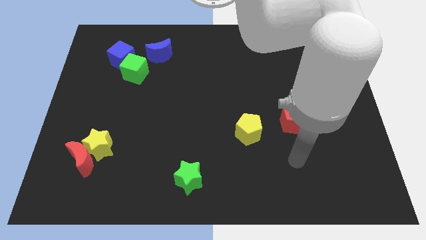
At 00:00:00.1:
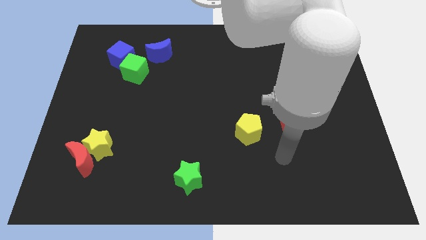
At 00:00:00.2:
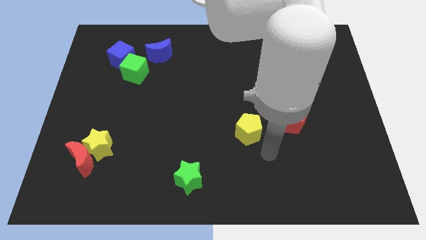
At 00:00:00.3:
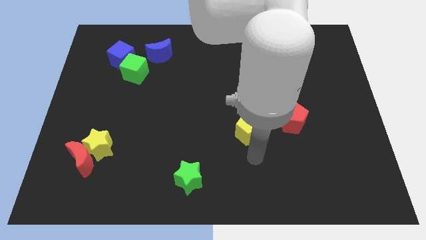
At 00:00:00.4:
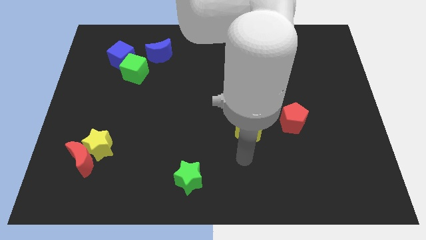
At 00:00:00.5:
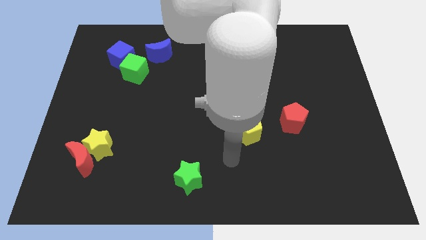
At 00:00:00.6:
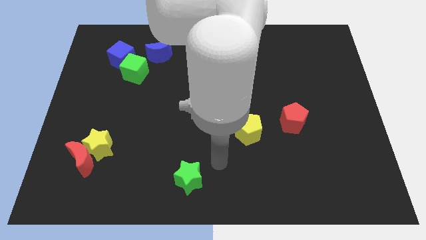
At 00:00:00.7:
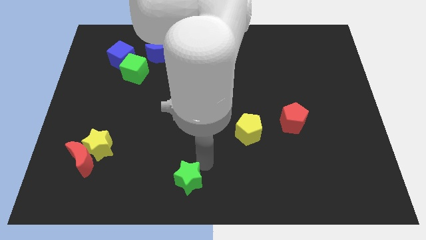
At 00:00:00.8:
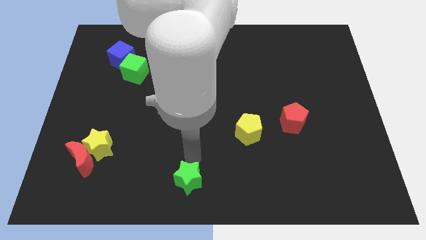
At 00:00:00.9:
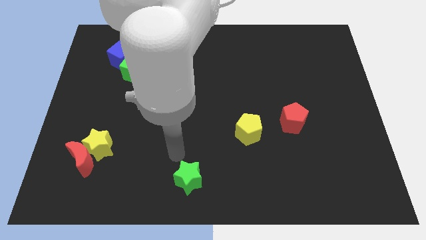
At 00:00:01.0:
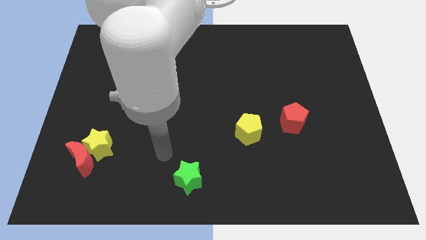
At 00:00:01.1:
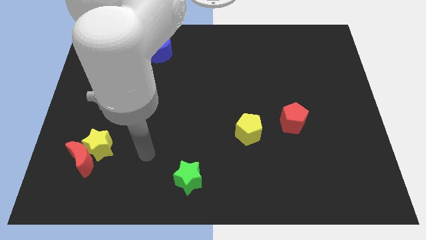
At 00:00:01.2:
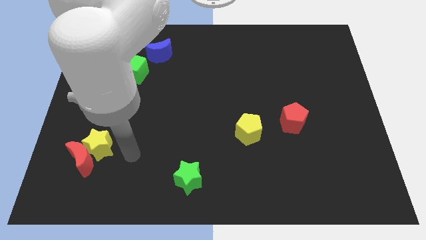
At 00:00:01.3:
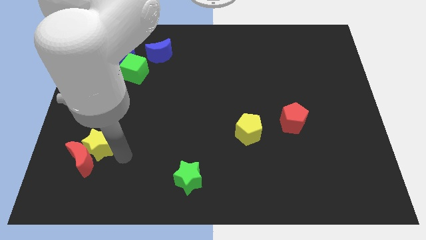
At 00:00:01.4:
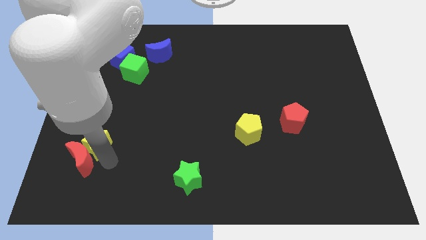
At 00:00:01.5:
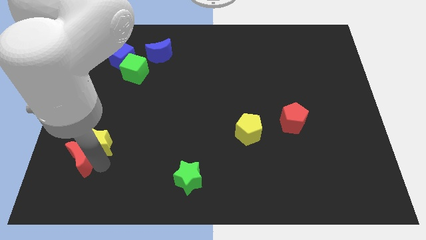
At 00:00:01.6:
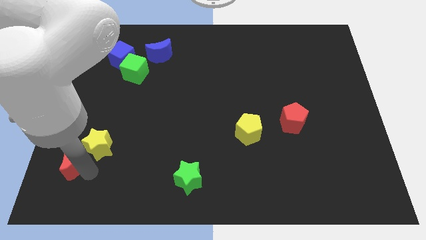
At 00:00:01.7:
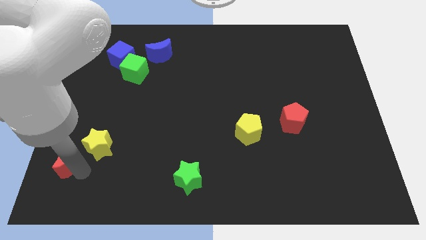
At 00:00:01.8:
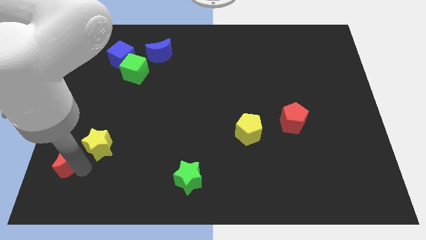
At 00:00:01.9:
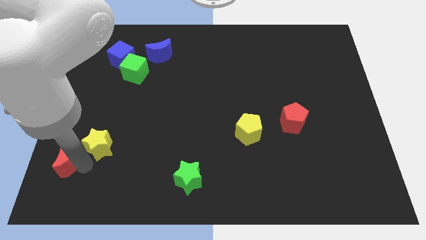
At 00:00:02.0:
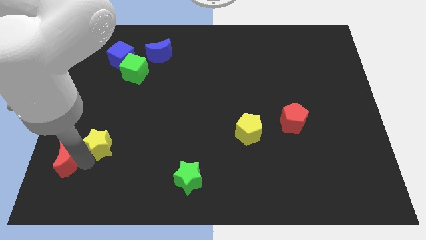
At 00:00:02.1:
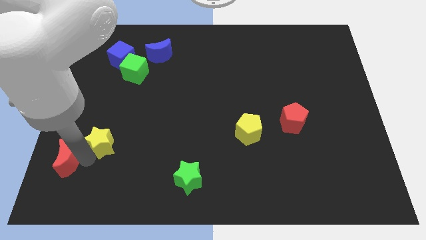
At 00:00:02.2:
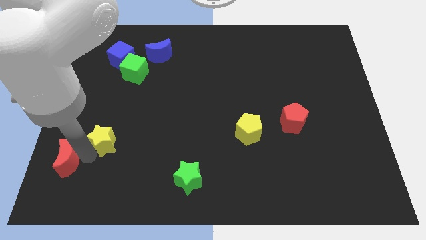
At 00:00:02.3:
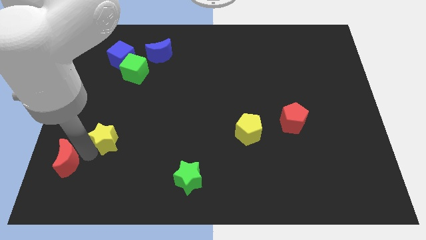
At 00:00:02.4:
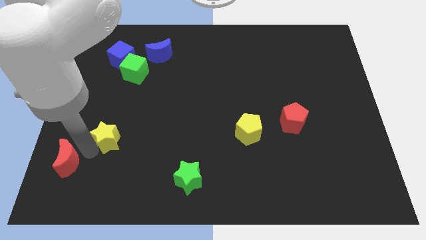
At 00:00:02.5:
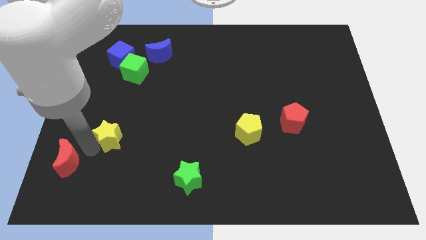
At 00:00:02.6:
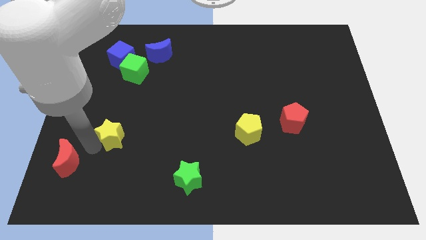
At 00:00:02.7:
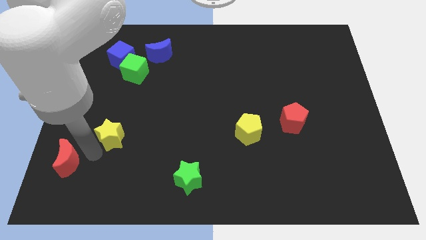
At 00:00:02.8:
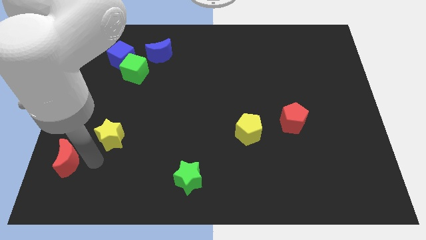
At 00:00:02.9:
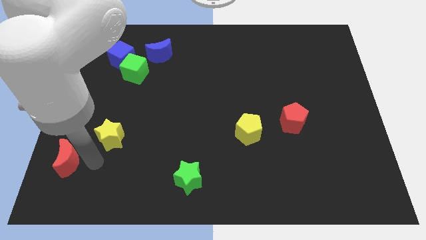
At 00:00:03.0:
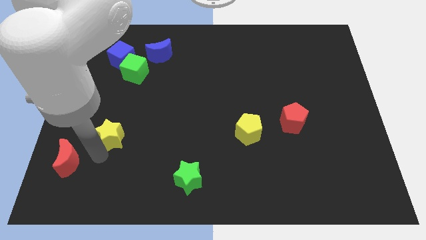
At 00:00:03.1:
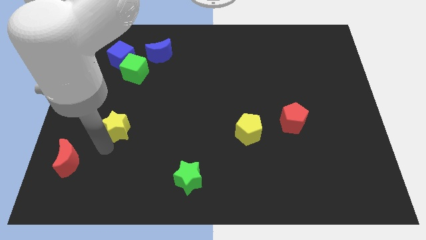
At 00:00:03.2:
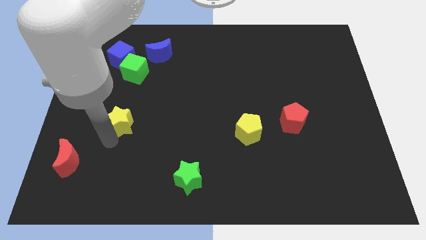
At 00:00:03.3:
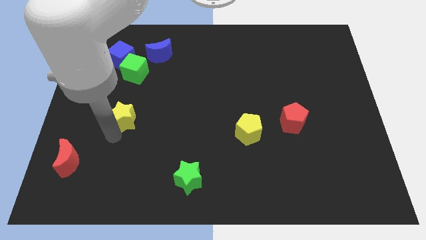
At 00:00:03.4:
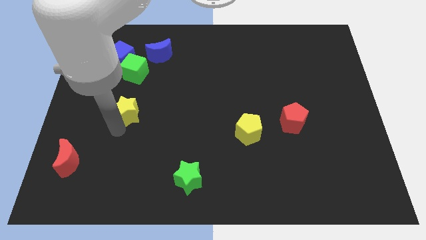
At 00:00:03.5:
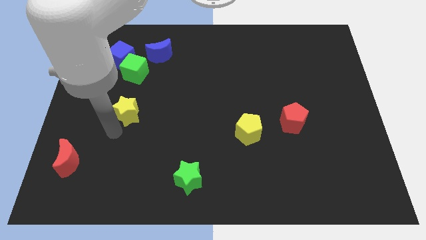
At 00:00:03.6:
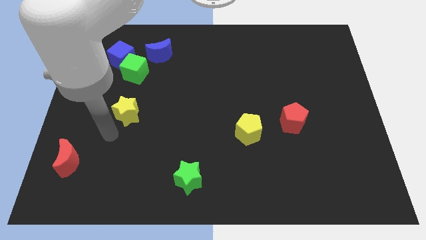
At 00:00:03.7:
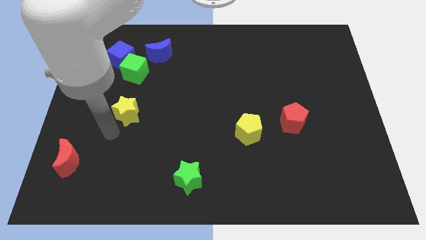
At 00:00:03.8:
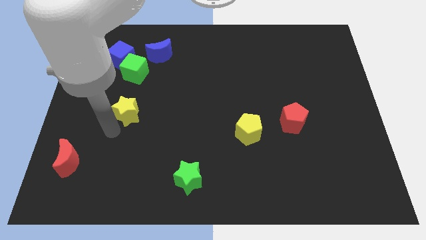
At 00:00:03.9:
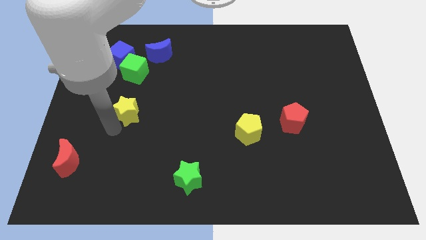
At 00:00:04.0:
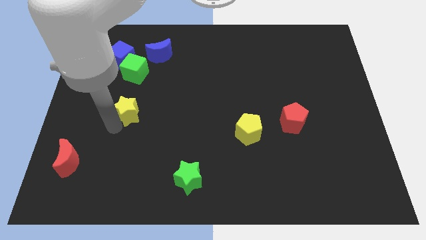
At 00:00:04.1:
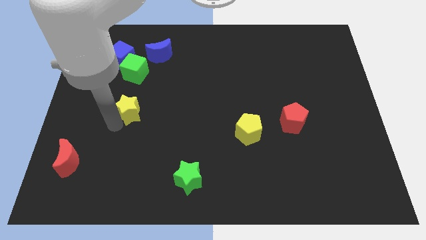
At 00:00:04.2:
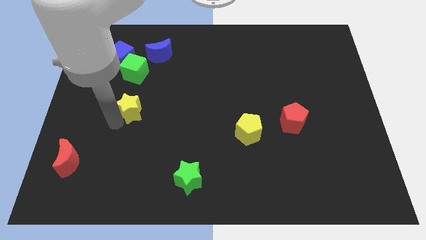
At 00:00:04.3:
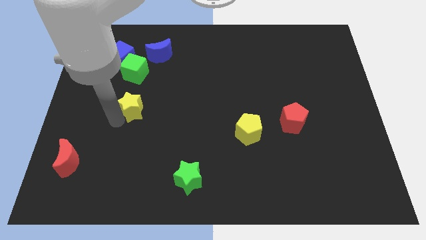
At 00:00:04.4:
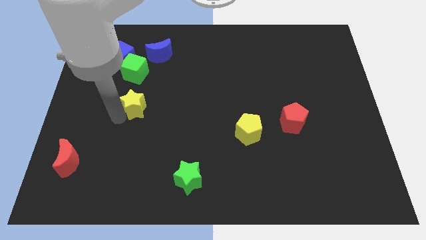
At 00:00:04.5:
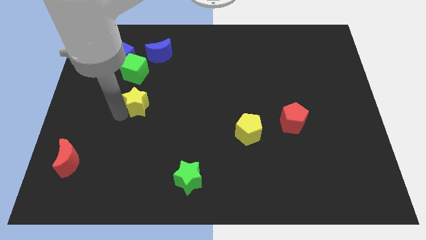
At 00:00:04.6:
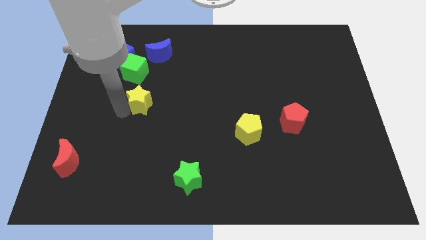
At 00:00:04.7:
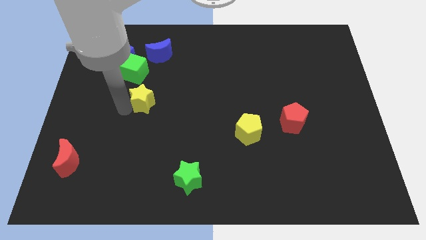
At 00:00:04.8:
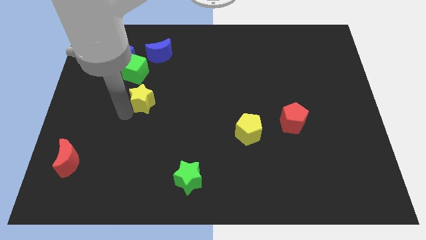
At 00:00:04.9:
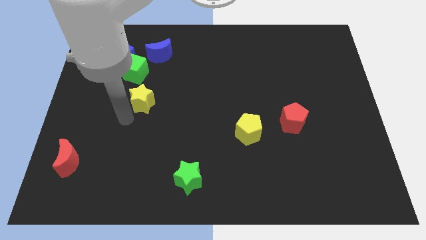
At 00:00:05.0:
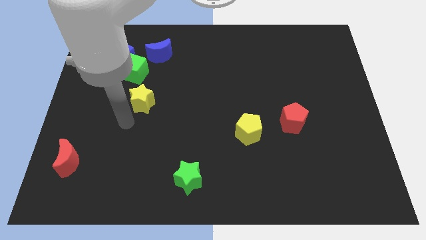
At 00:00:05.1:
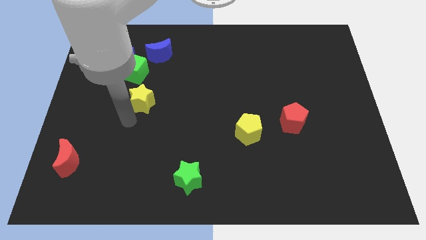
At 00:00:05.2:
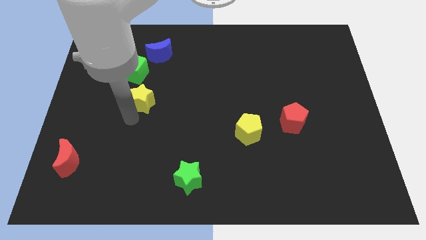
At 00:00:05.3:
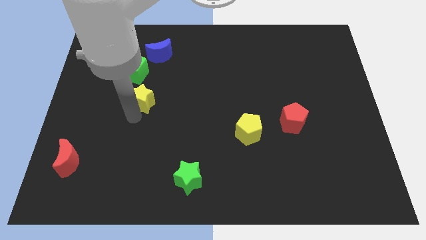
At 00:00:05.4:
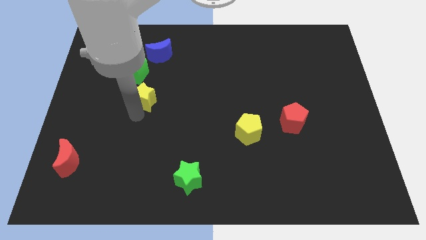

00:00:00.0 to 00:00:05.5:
put the yellow star to the bottom of the blue moon
